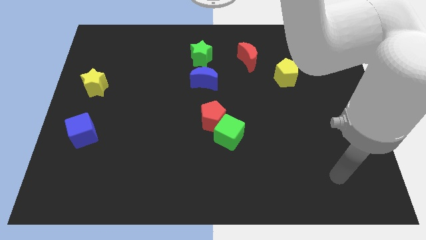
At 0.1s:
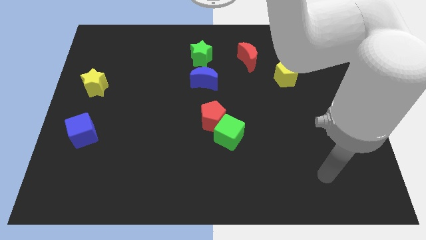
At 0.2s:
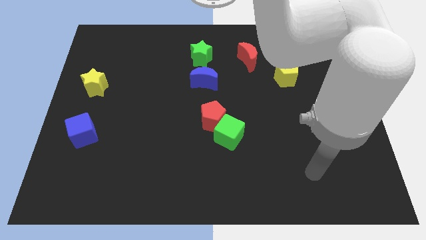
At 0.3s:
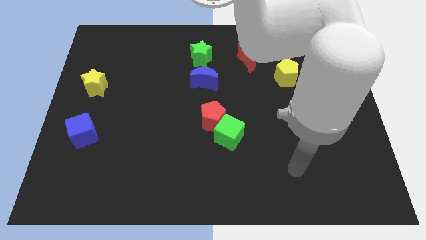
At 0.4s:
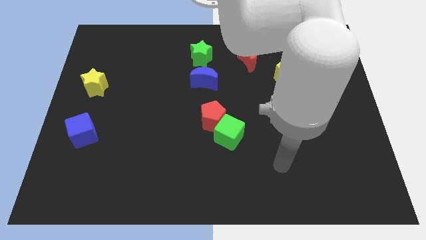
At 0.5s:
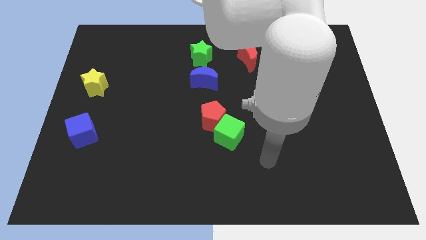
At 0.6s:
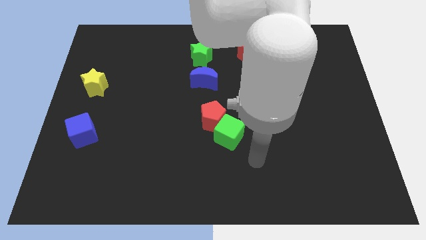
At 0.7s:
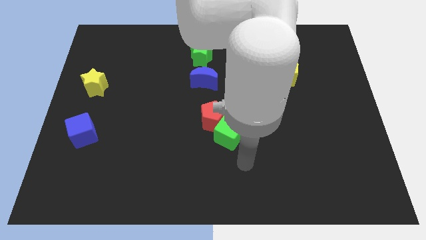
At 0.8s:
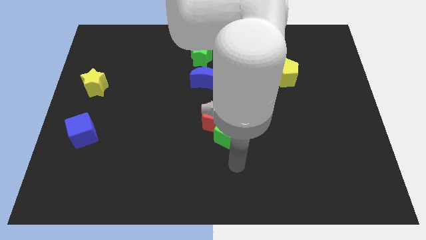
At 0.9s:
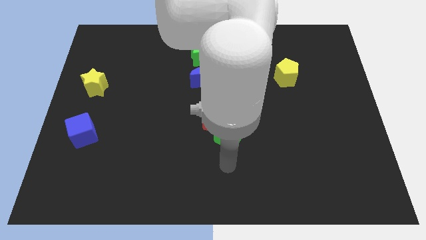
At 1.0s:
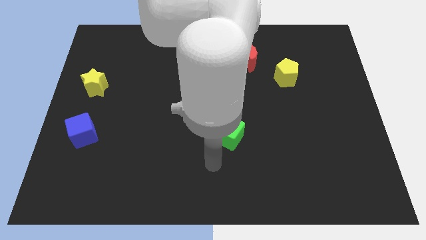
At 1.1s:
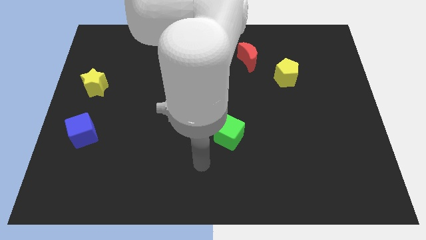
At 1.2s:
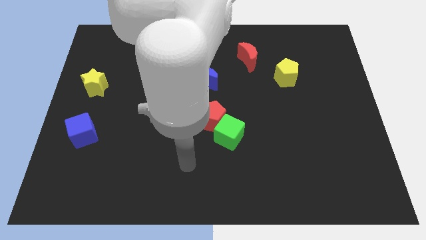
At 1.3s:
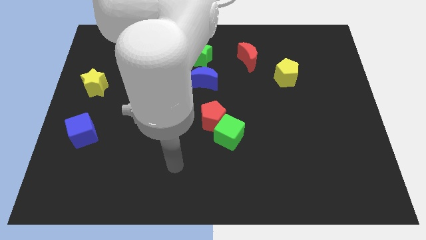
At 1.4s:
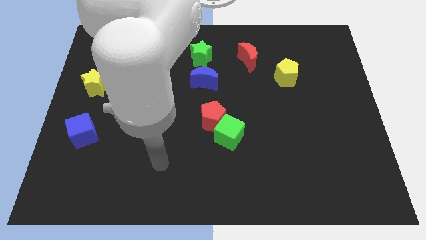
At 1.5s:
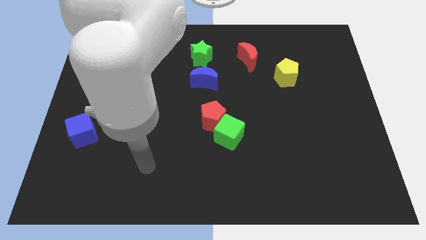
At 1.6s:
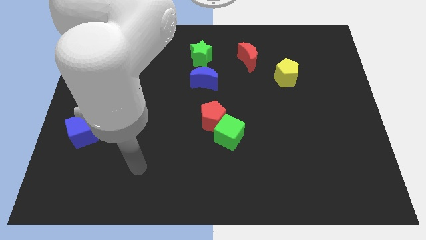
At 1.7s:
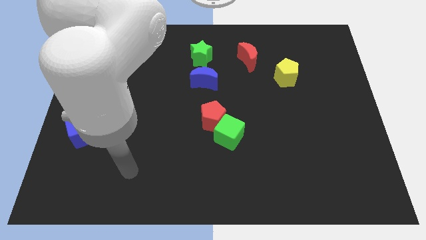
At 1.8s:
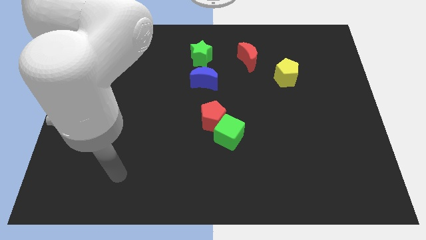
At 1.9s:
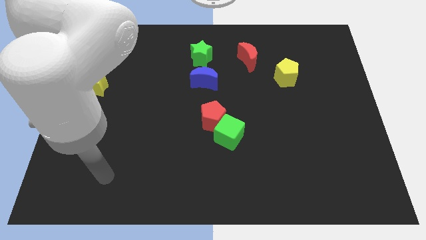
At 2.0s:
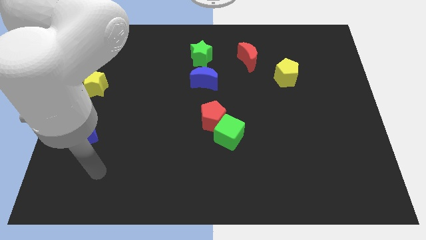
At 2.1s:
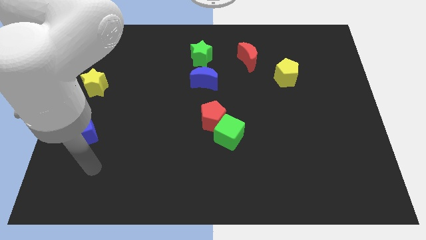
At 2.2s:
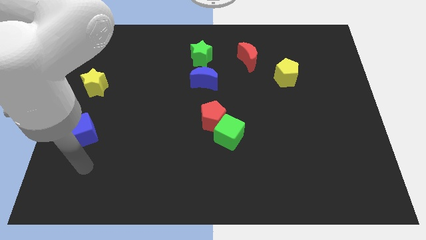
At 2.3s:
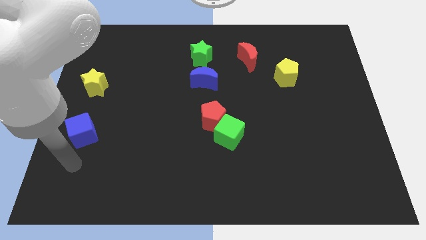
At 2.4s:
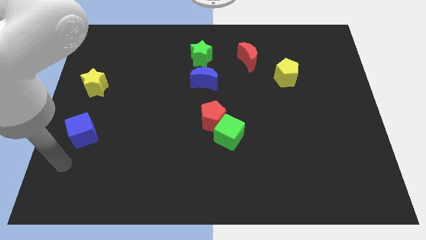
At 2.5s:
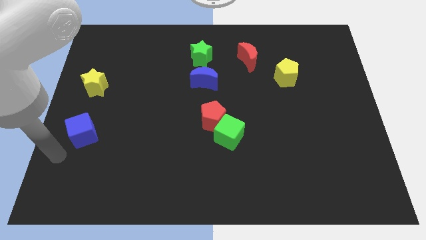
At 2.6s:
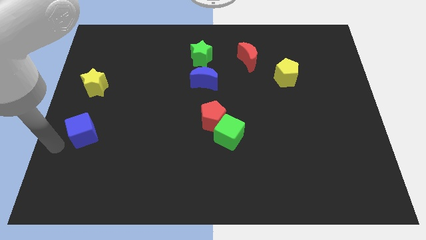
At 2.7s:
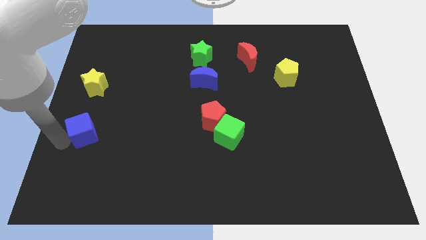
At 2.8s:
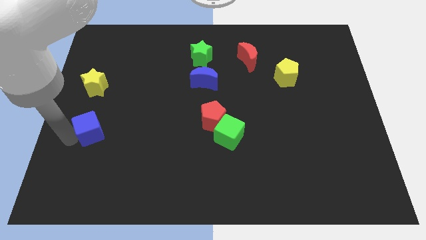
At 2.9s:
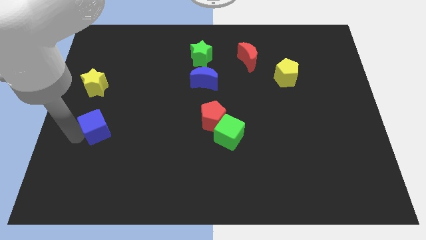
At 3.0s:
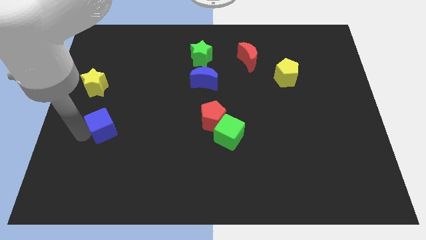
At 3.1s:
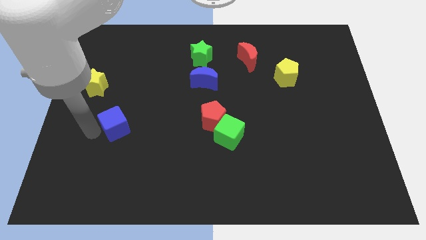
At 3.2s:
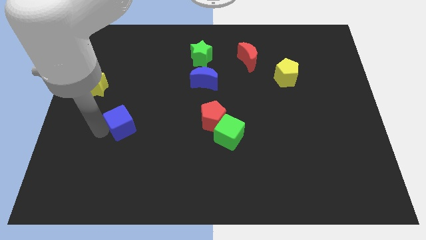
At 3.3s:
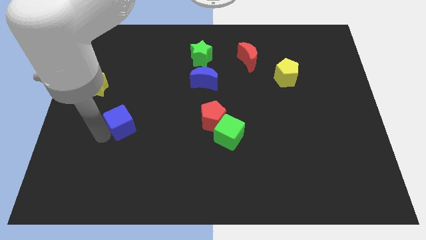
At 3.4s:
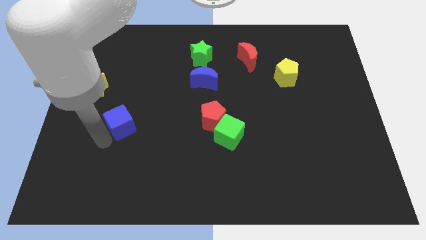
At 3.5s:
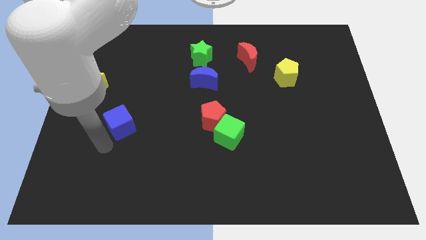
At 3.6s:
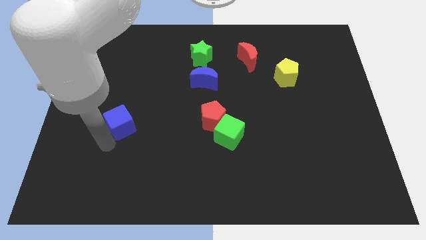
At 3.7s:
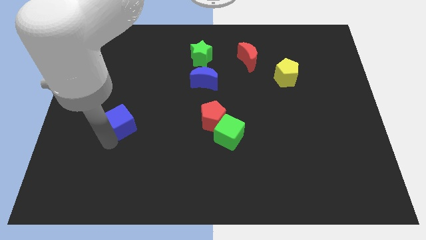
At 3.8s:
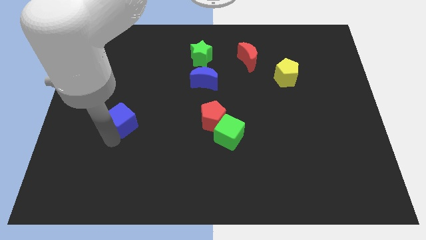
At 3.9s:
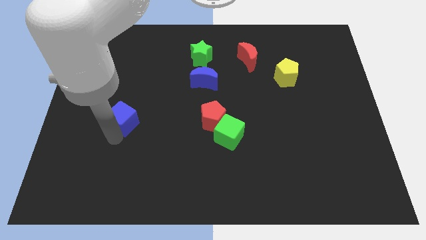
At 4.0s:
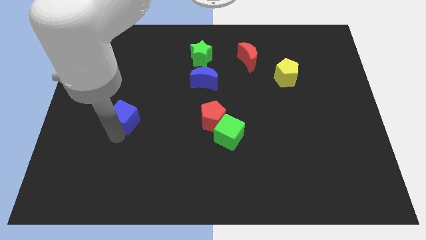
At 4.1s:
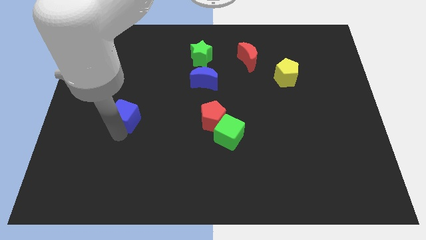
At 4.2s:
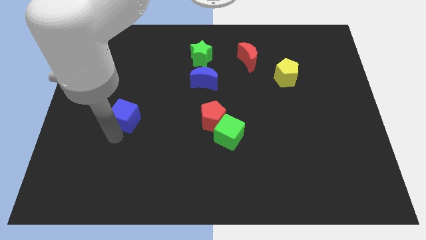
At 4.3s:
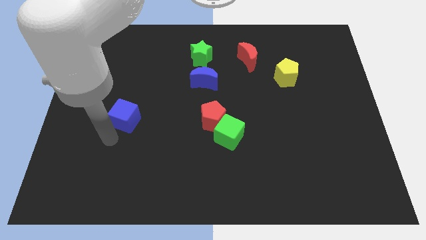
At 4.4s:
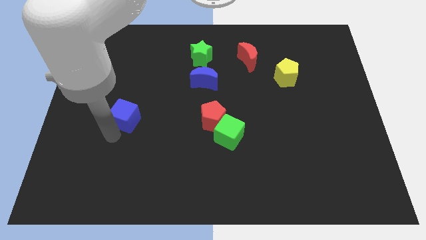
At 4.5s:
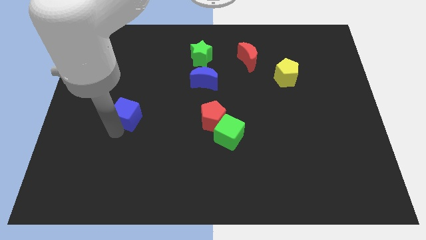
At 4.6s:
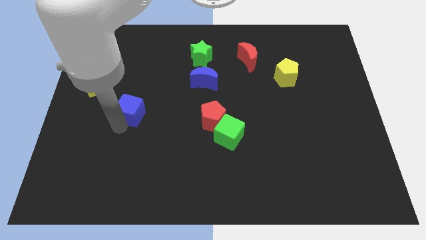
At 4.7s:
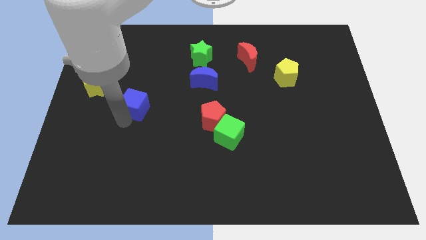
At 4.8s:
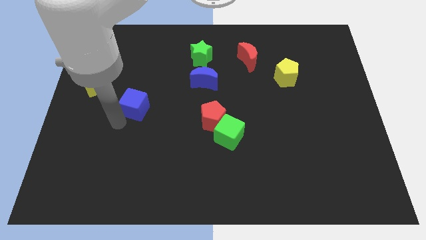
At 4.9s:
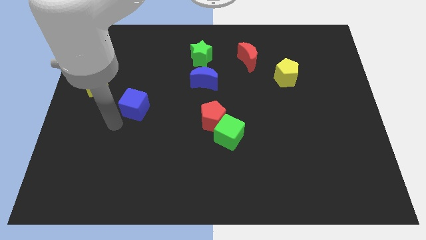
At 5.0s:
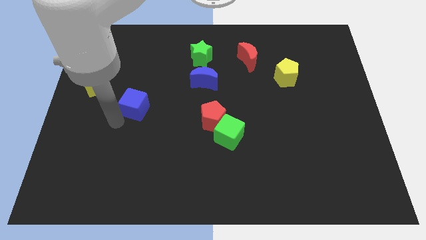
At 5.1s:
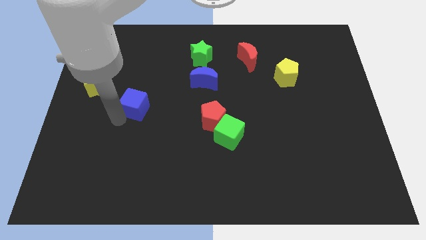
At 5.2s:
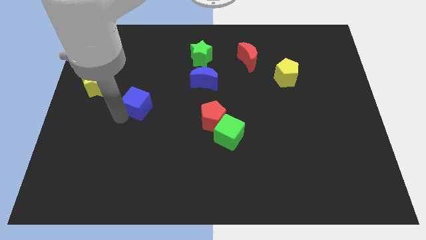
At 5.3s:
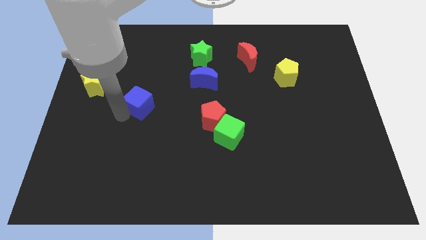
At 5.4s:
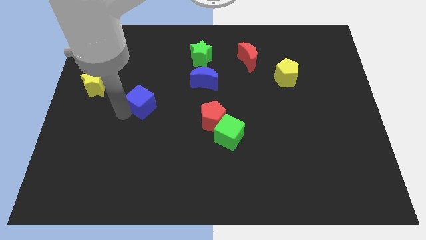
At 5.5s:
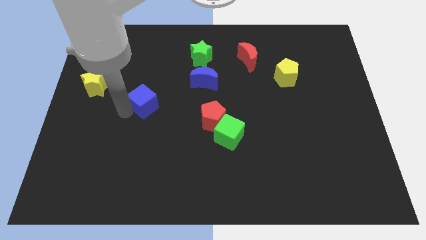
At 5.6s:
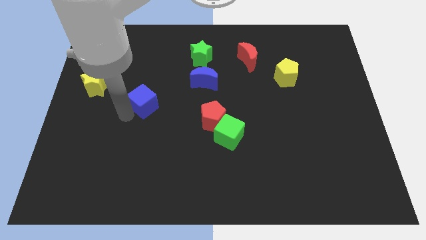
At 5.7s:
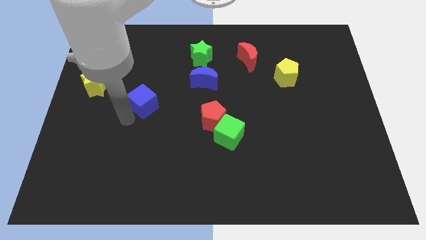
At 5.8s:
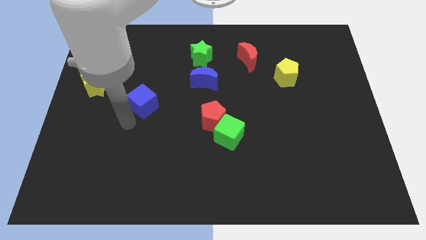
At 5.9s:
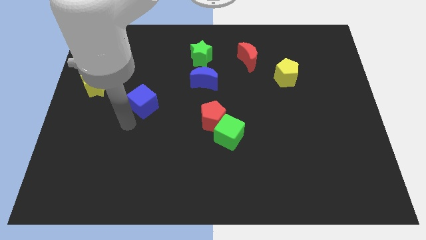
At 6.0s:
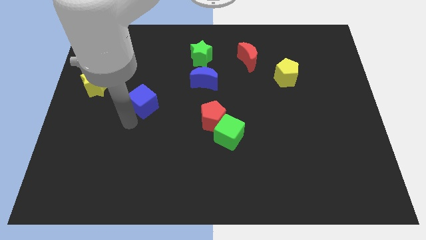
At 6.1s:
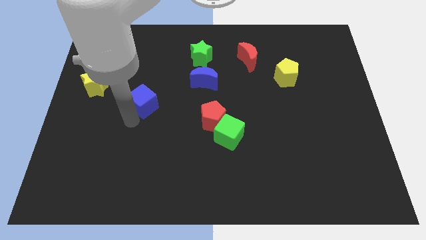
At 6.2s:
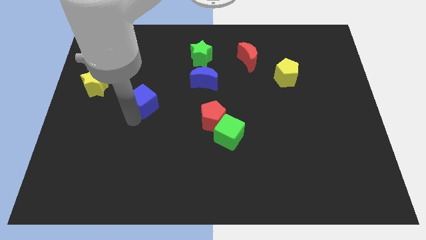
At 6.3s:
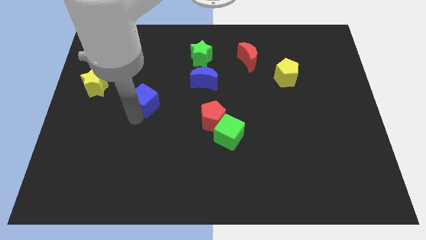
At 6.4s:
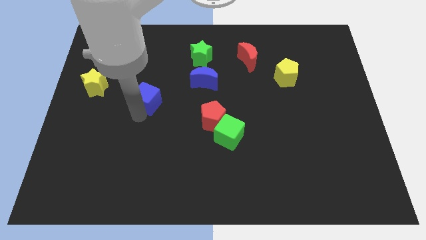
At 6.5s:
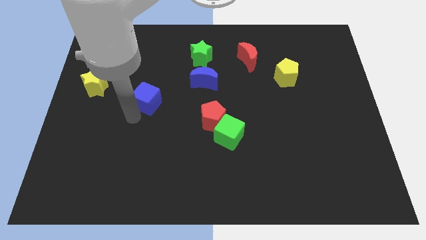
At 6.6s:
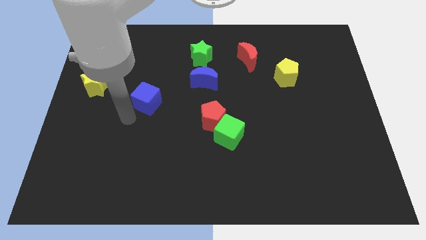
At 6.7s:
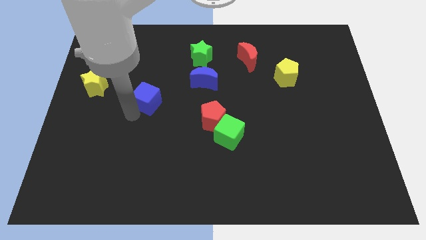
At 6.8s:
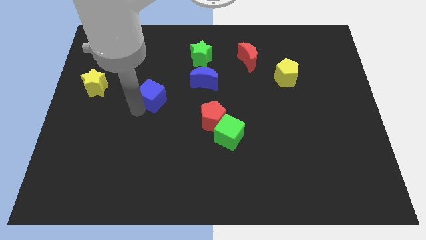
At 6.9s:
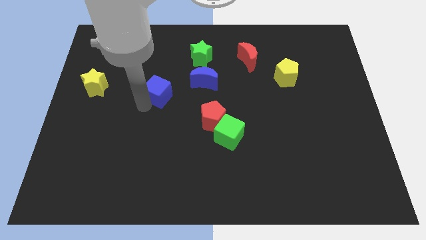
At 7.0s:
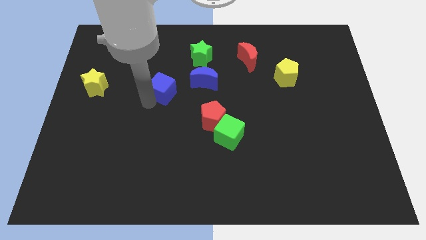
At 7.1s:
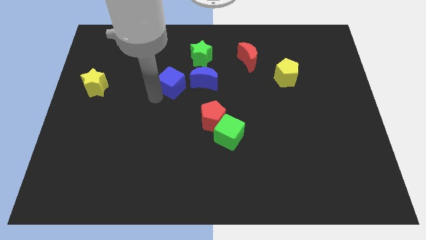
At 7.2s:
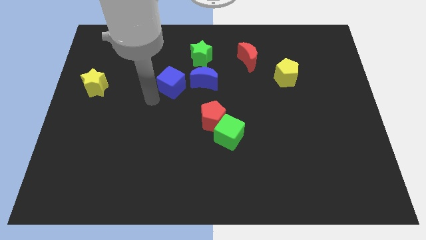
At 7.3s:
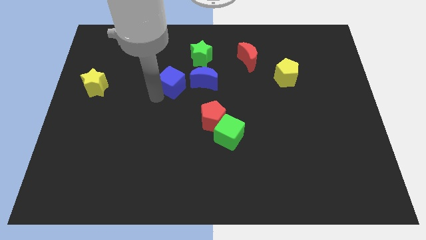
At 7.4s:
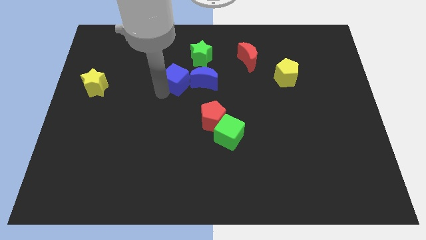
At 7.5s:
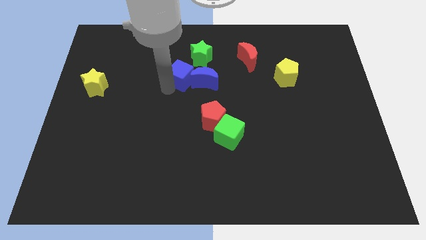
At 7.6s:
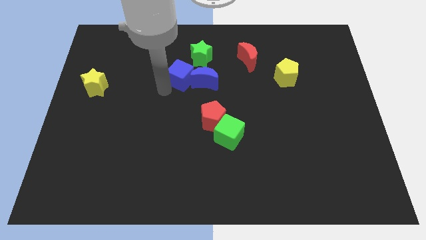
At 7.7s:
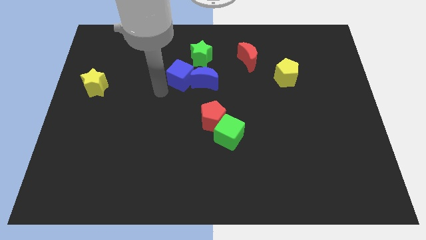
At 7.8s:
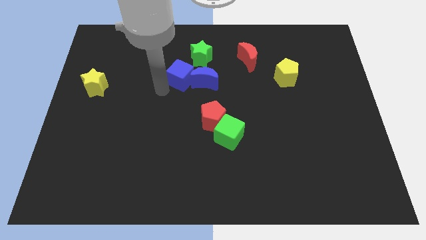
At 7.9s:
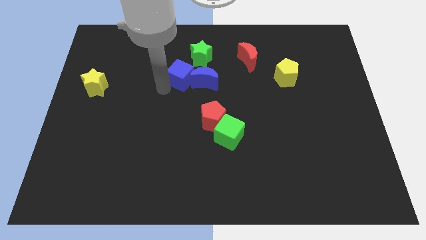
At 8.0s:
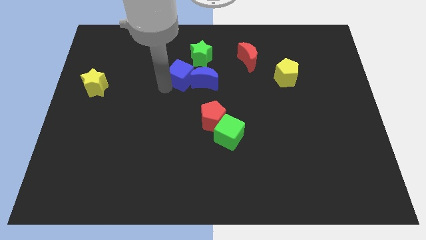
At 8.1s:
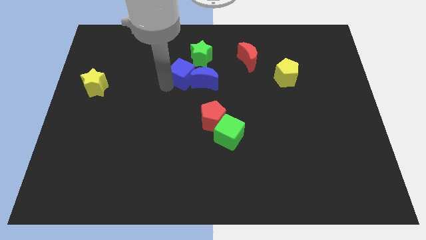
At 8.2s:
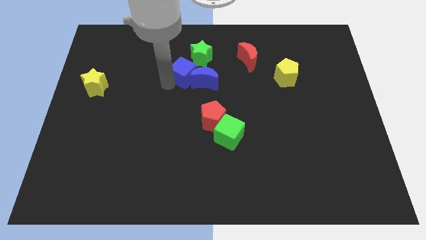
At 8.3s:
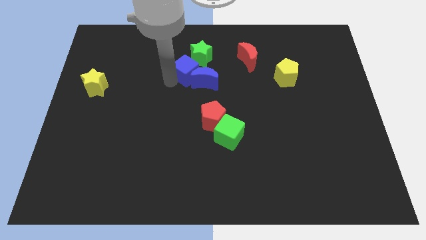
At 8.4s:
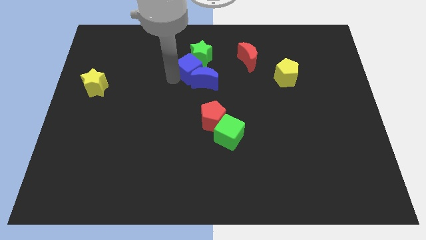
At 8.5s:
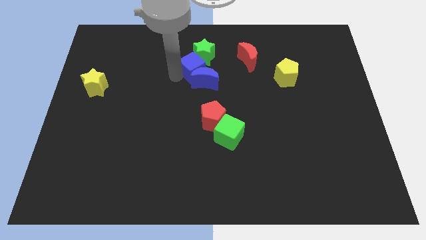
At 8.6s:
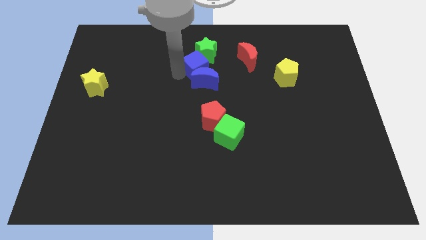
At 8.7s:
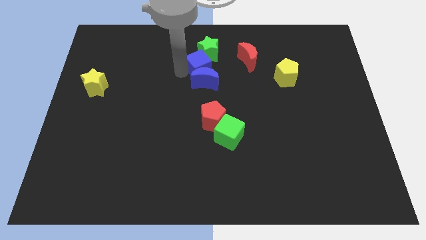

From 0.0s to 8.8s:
move the blue cube diagonally up and to the right of the blue moon
